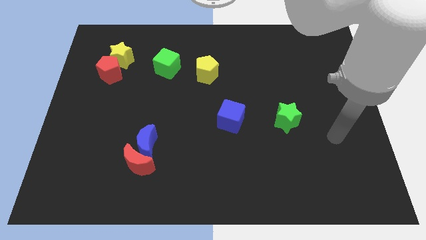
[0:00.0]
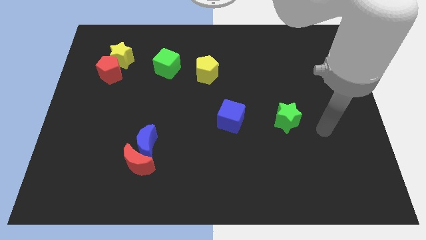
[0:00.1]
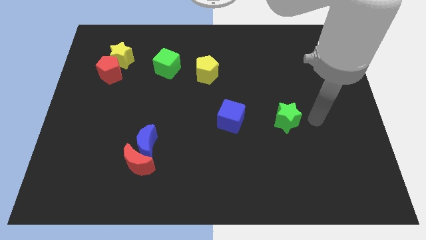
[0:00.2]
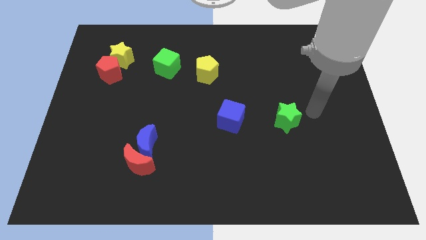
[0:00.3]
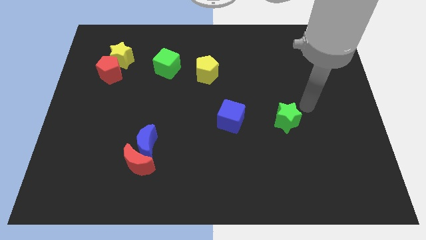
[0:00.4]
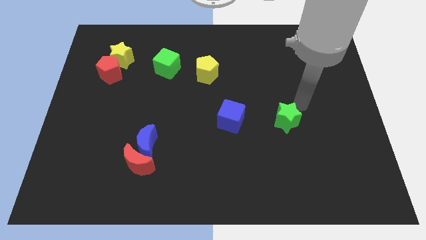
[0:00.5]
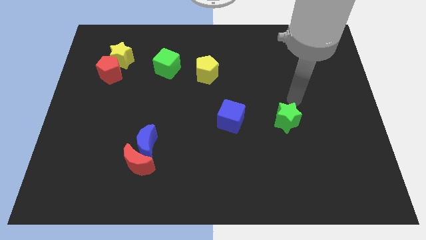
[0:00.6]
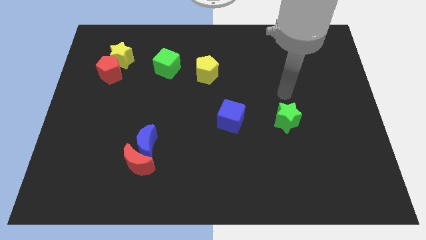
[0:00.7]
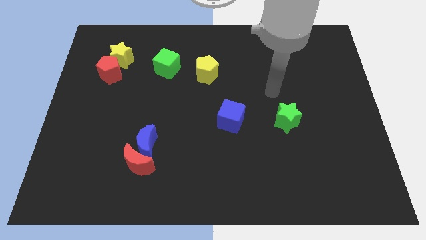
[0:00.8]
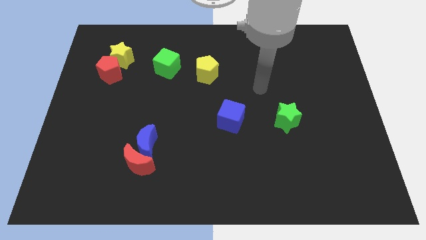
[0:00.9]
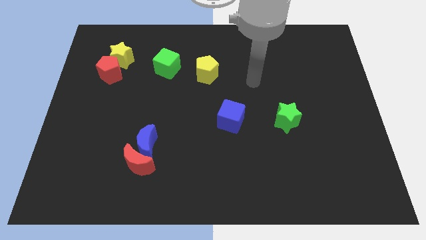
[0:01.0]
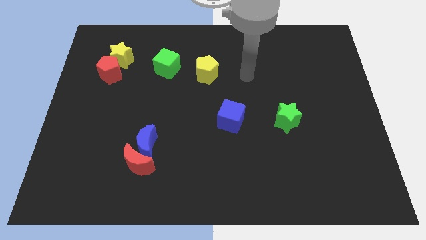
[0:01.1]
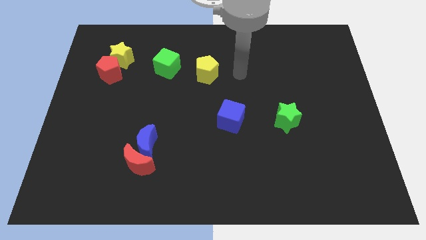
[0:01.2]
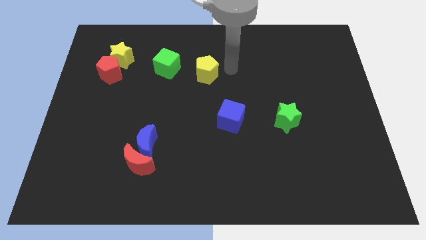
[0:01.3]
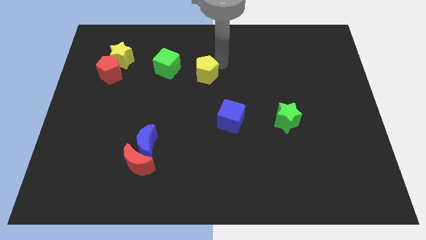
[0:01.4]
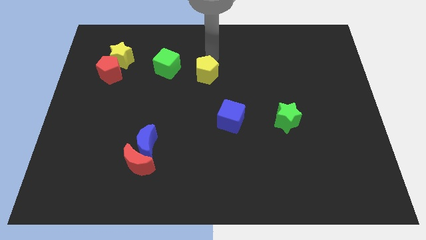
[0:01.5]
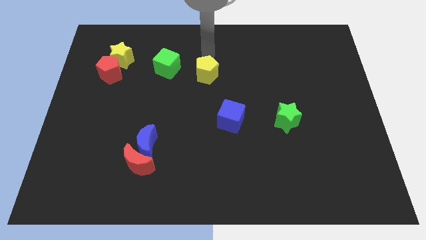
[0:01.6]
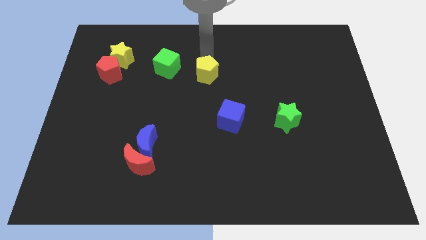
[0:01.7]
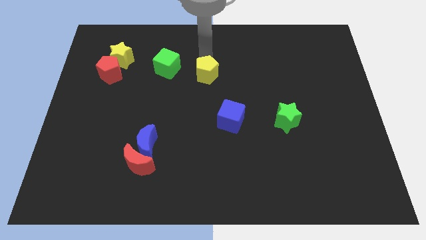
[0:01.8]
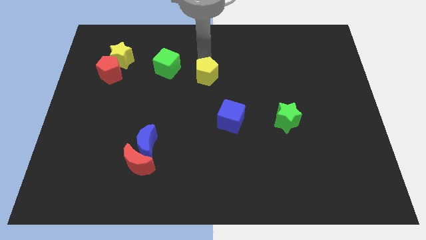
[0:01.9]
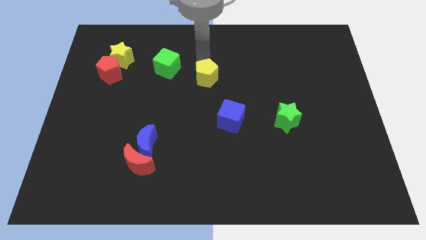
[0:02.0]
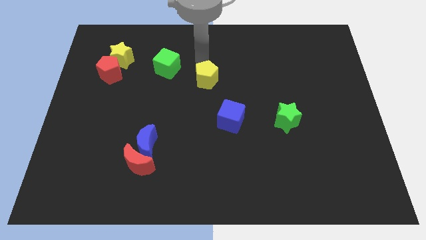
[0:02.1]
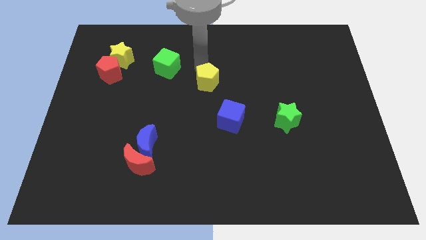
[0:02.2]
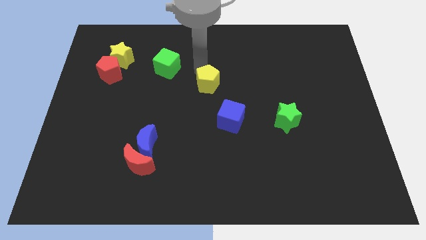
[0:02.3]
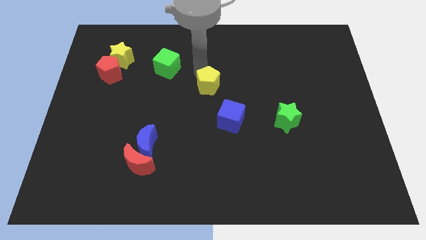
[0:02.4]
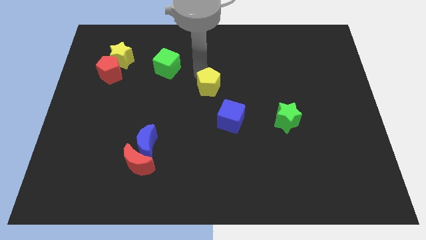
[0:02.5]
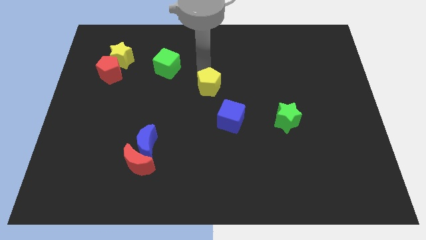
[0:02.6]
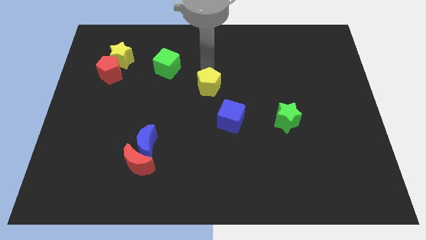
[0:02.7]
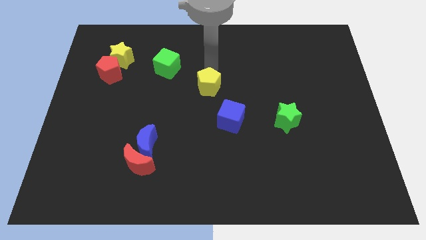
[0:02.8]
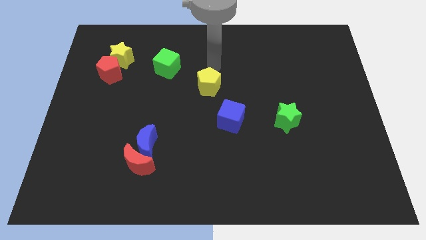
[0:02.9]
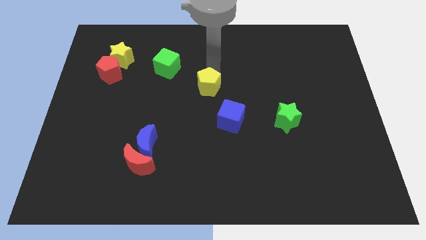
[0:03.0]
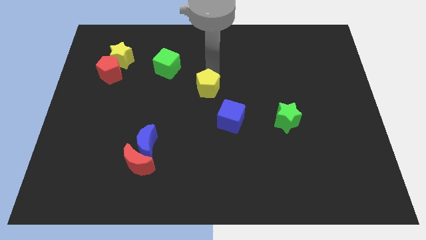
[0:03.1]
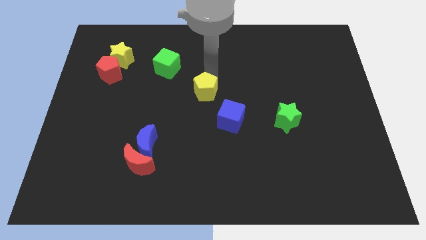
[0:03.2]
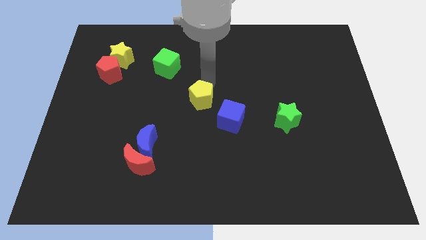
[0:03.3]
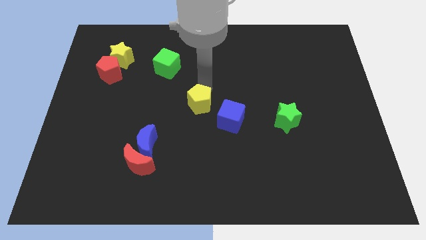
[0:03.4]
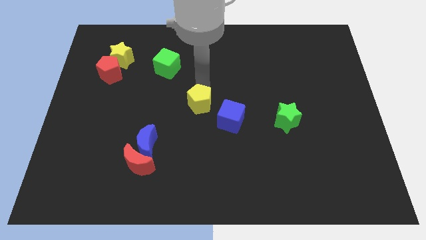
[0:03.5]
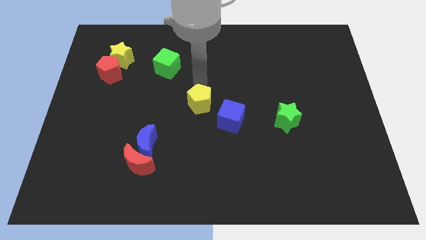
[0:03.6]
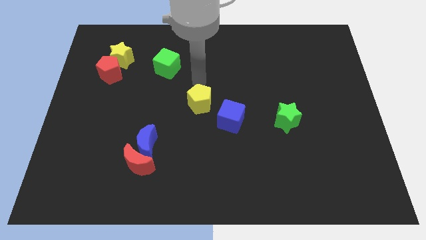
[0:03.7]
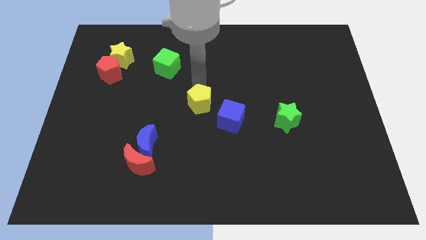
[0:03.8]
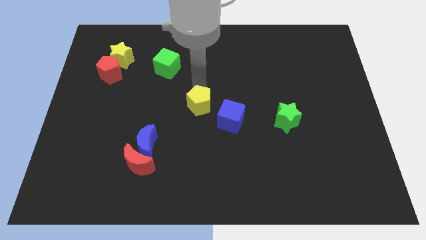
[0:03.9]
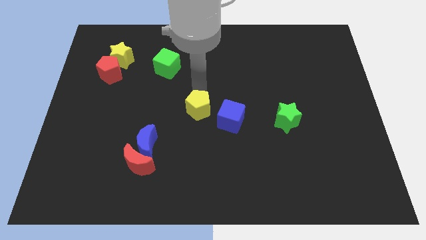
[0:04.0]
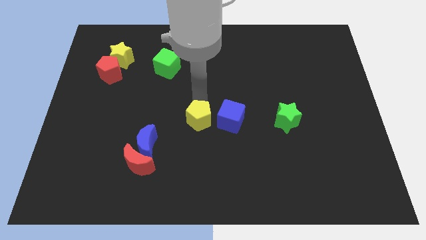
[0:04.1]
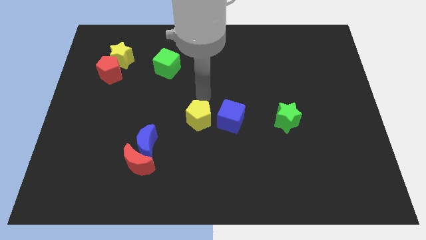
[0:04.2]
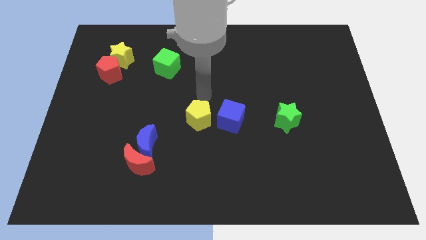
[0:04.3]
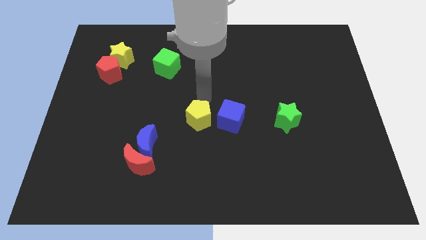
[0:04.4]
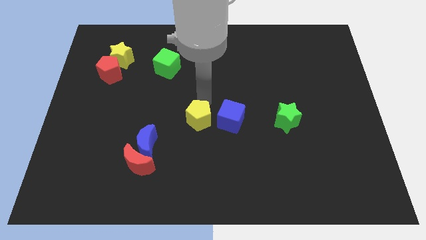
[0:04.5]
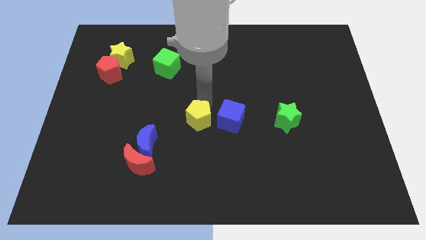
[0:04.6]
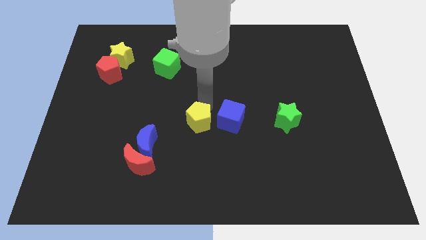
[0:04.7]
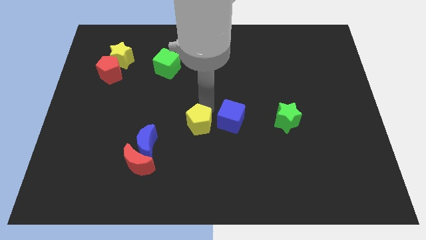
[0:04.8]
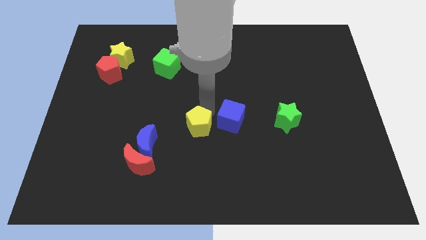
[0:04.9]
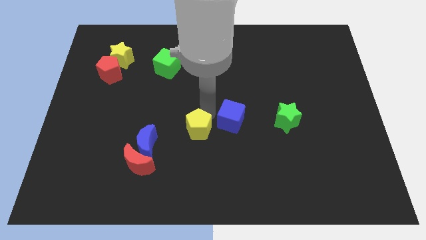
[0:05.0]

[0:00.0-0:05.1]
slide the yellow pentagon to the right side of the blue moon

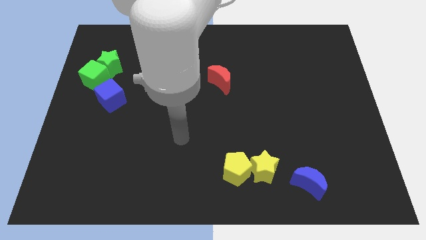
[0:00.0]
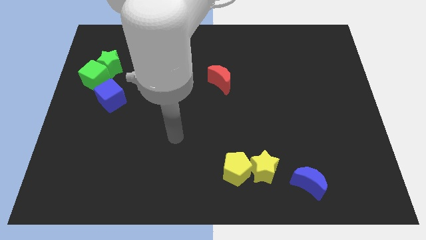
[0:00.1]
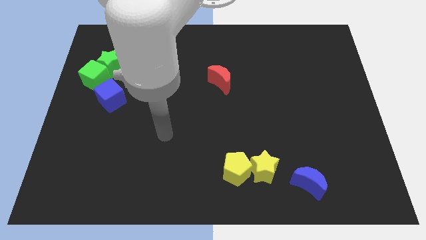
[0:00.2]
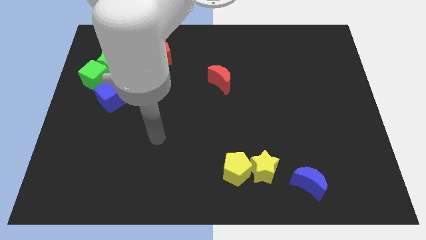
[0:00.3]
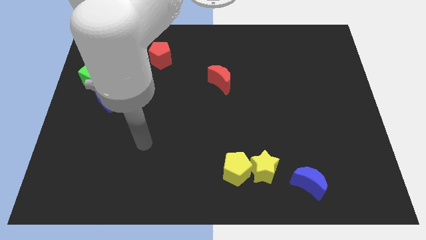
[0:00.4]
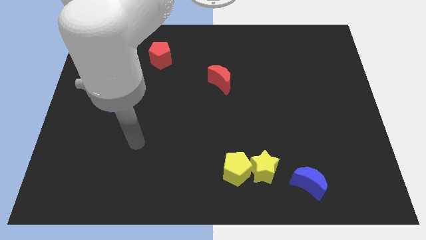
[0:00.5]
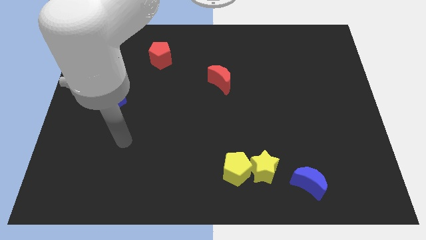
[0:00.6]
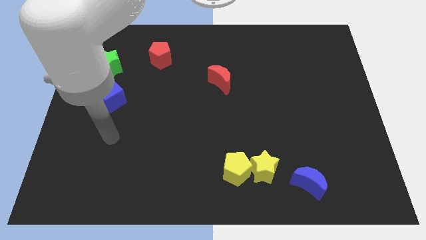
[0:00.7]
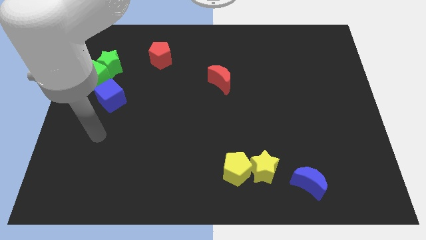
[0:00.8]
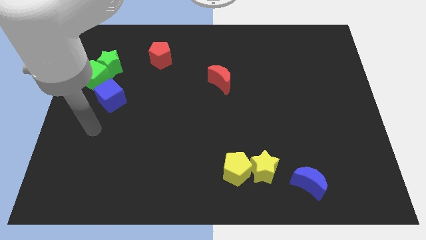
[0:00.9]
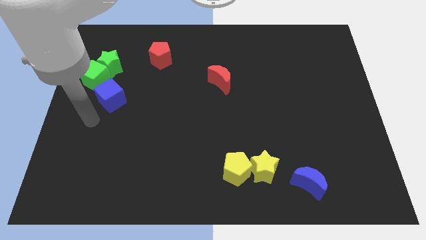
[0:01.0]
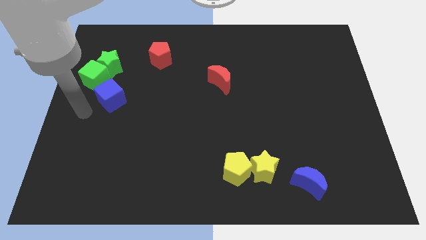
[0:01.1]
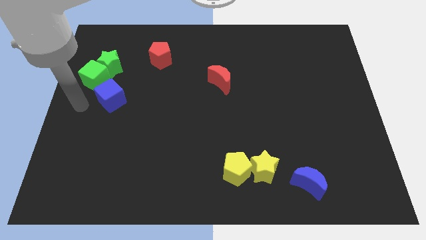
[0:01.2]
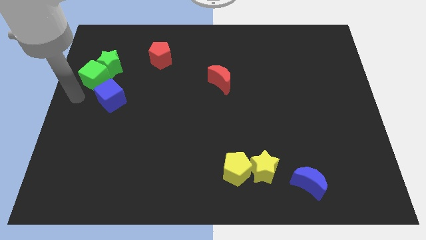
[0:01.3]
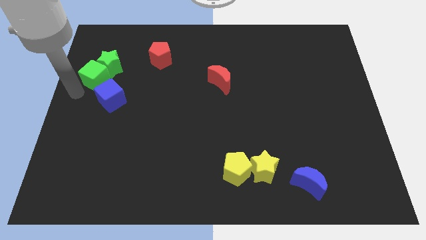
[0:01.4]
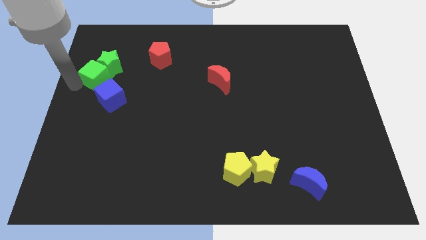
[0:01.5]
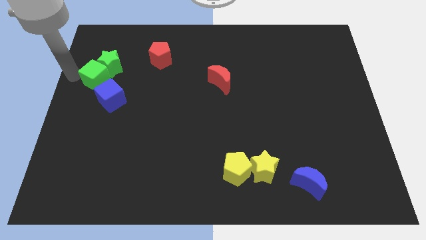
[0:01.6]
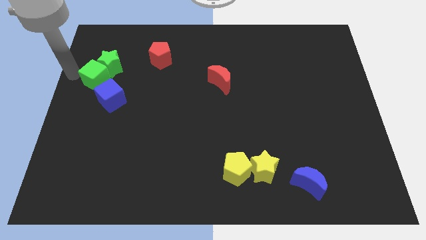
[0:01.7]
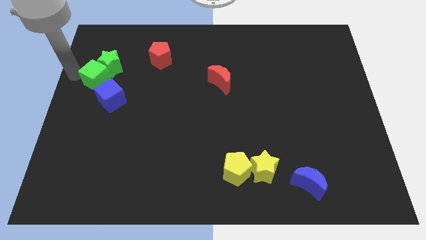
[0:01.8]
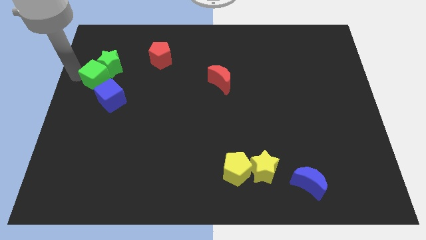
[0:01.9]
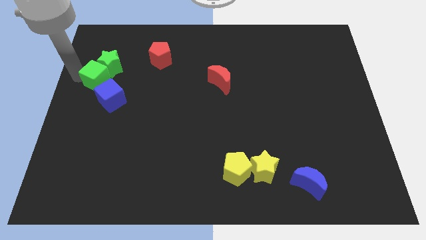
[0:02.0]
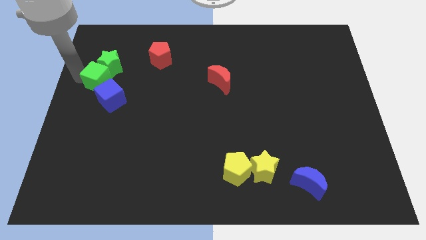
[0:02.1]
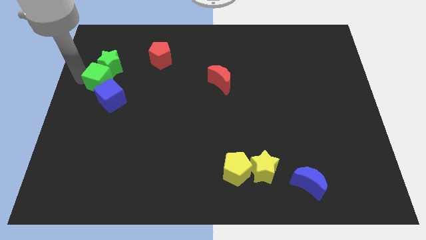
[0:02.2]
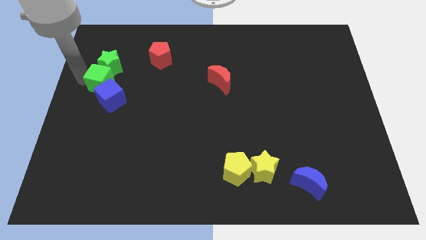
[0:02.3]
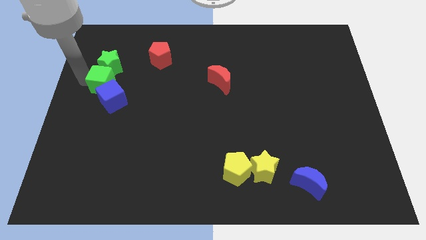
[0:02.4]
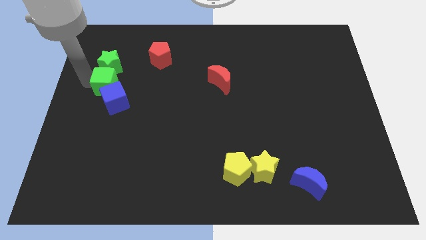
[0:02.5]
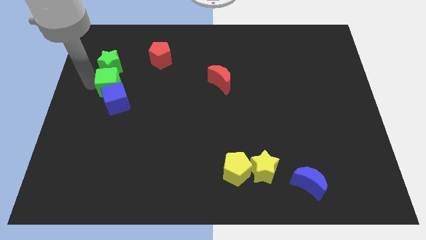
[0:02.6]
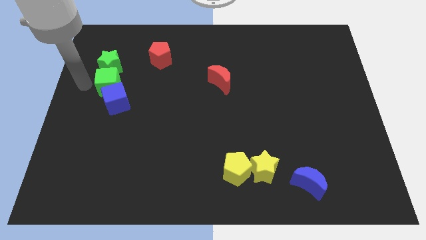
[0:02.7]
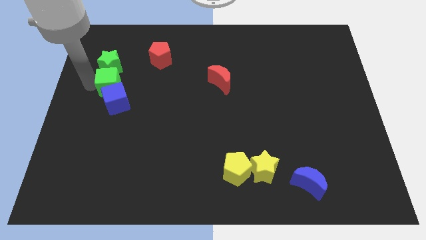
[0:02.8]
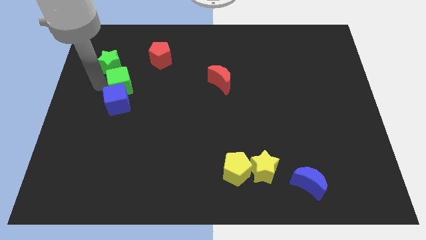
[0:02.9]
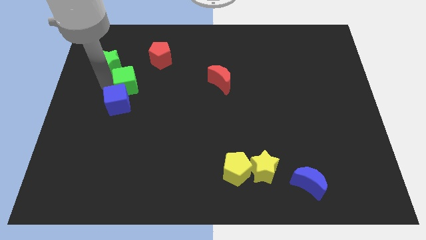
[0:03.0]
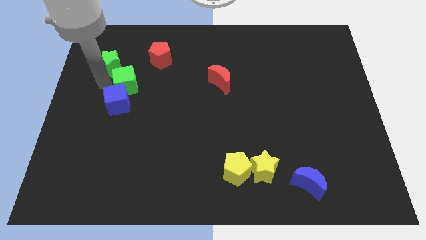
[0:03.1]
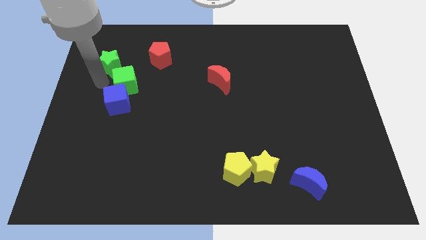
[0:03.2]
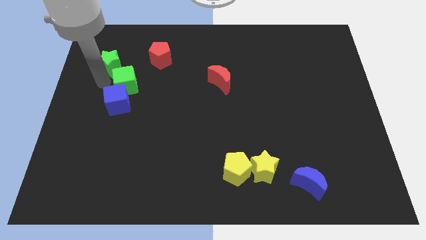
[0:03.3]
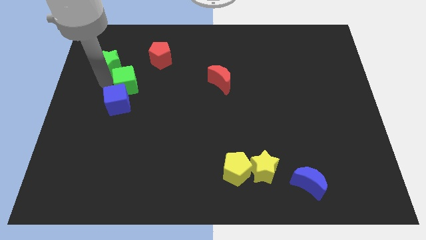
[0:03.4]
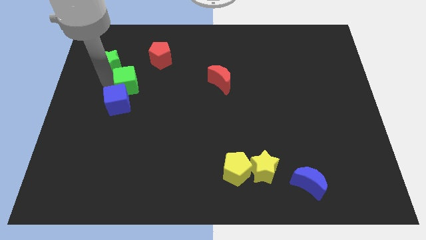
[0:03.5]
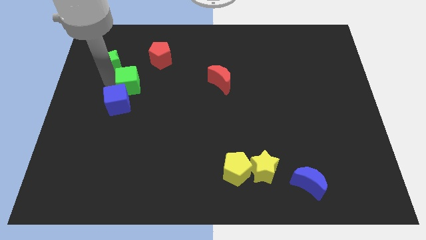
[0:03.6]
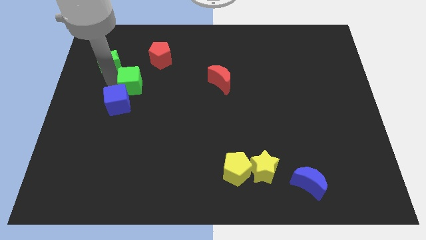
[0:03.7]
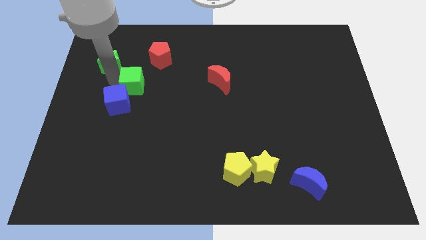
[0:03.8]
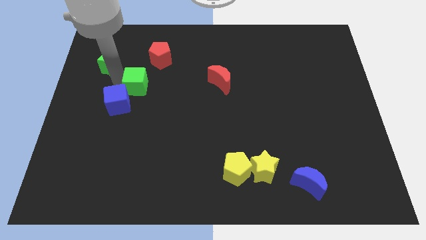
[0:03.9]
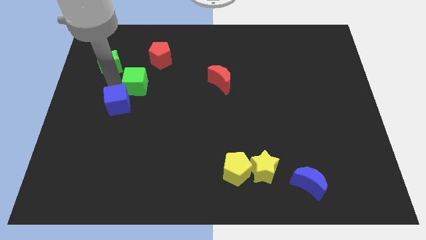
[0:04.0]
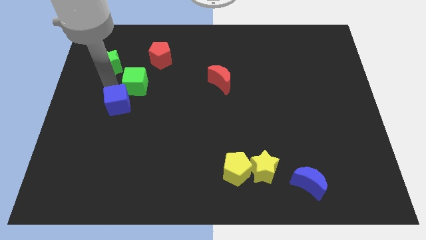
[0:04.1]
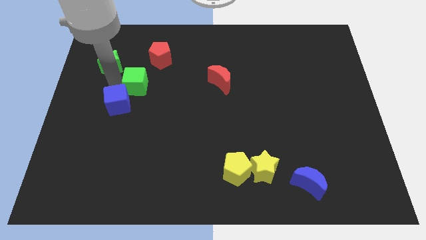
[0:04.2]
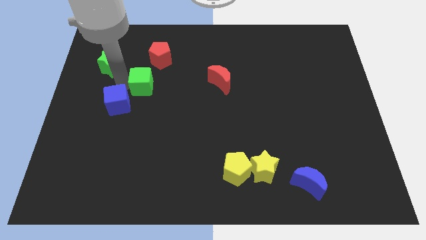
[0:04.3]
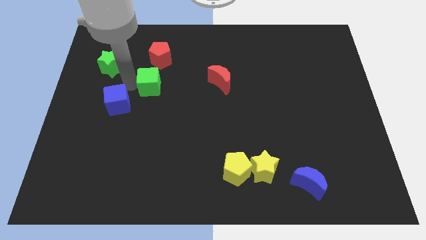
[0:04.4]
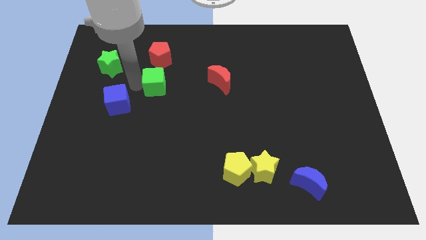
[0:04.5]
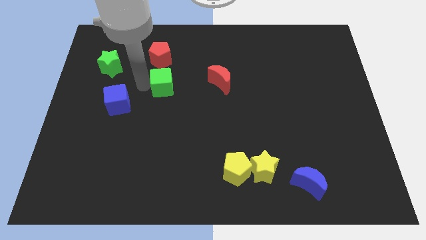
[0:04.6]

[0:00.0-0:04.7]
move the green cube left of the red moon
